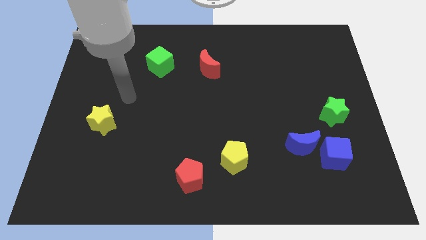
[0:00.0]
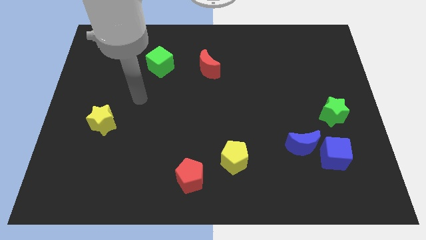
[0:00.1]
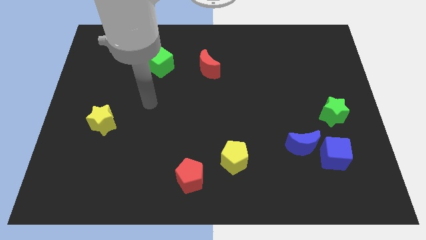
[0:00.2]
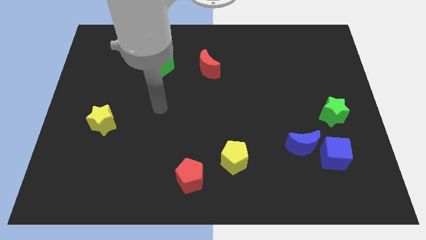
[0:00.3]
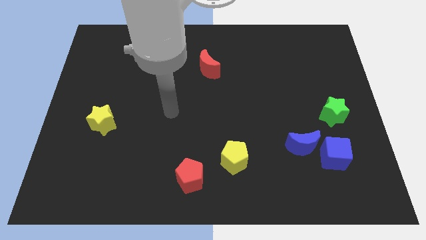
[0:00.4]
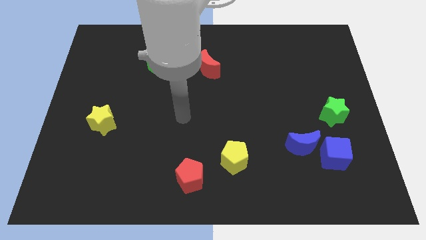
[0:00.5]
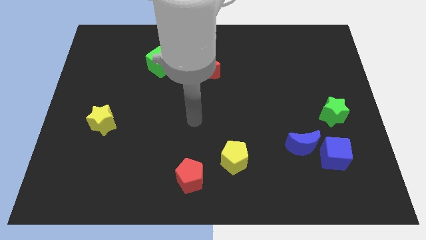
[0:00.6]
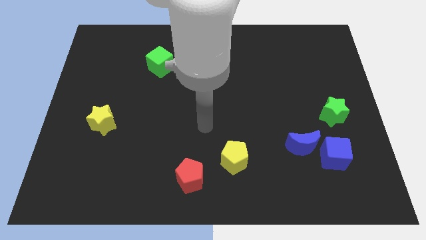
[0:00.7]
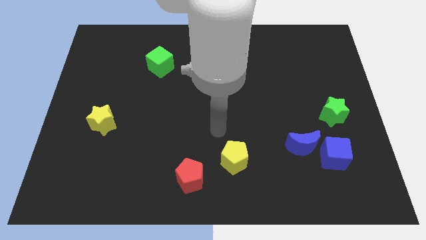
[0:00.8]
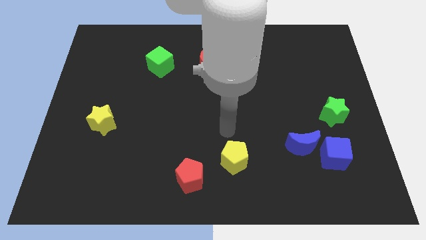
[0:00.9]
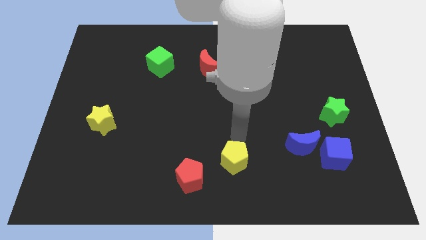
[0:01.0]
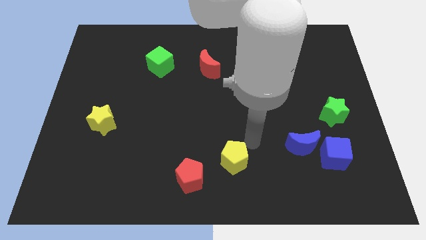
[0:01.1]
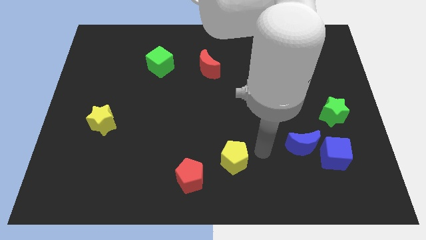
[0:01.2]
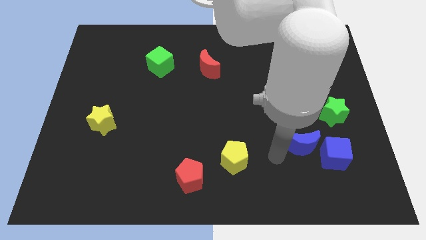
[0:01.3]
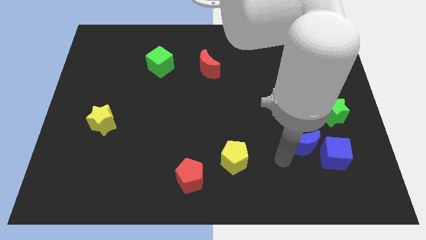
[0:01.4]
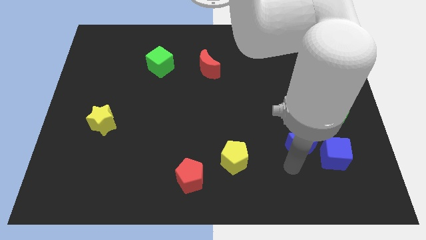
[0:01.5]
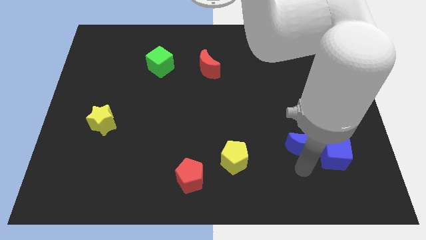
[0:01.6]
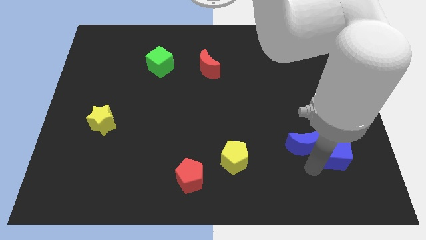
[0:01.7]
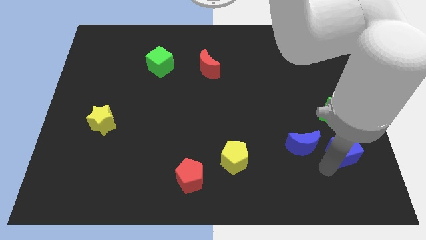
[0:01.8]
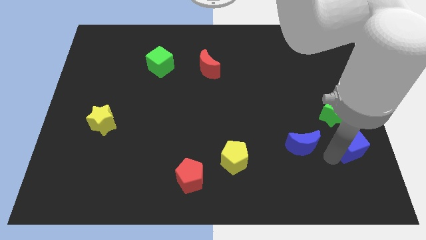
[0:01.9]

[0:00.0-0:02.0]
separate the blue moon from the blue cube

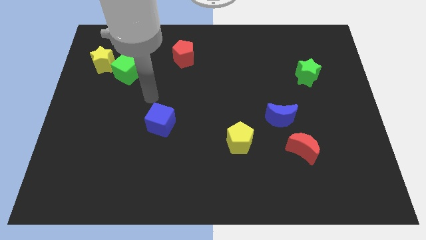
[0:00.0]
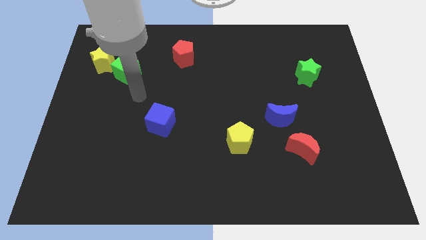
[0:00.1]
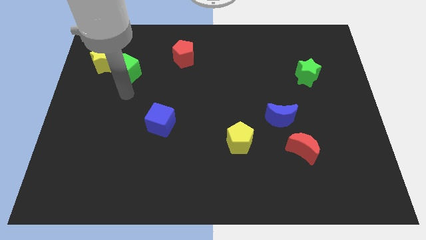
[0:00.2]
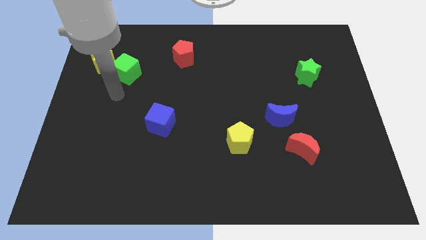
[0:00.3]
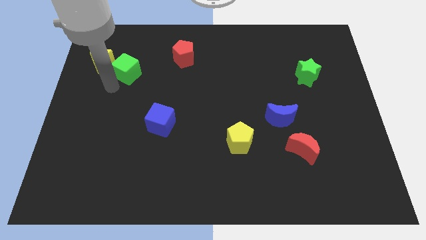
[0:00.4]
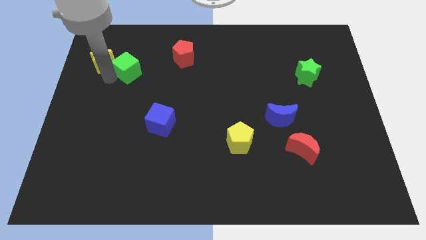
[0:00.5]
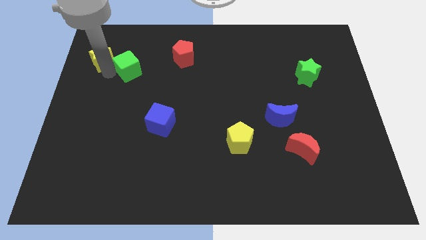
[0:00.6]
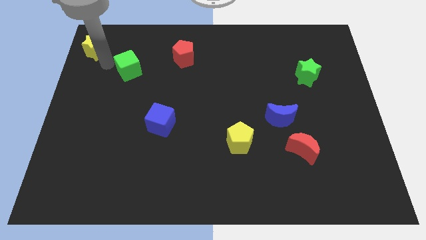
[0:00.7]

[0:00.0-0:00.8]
pull the green cube apart from the yellow star

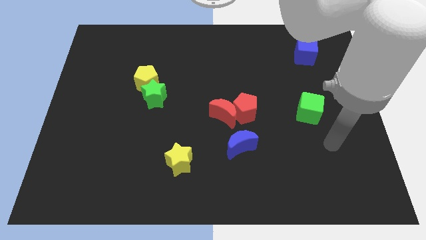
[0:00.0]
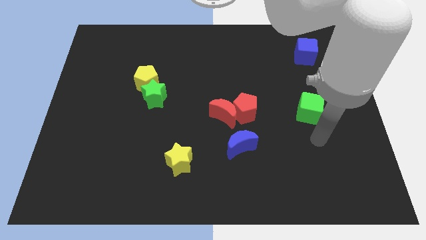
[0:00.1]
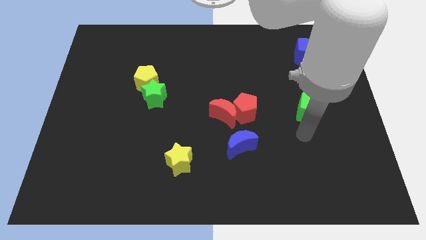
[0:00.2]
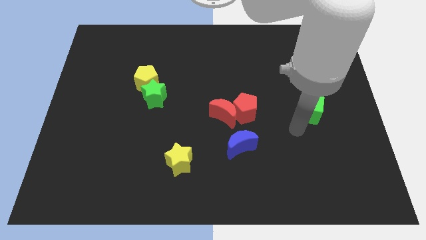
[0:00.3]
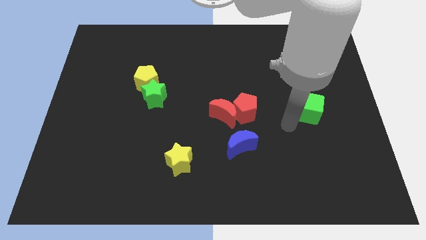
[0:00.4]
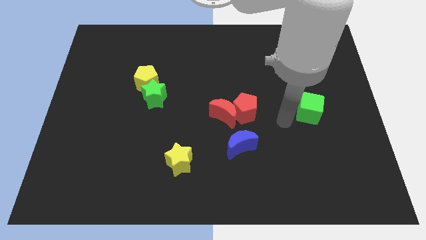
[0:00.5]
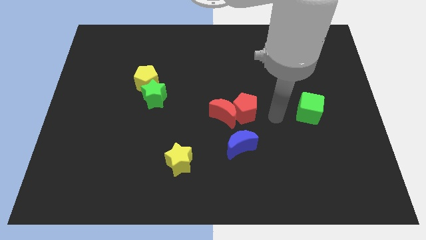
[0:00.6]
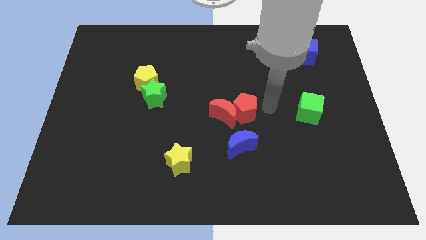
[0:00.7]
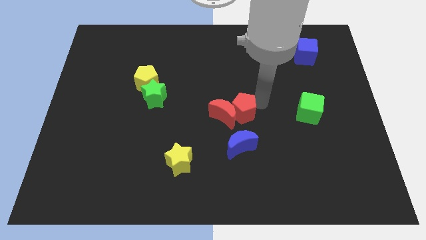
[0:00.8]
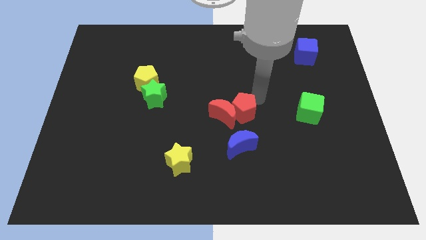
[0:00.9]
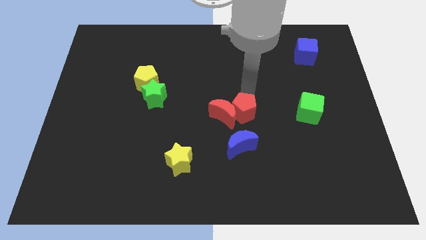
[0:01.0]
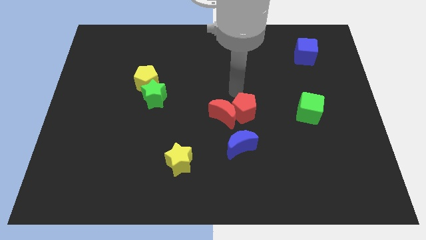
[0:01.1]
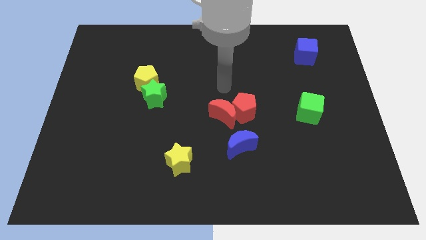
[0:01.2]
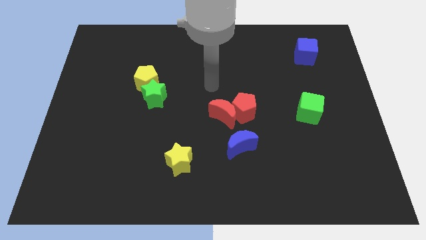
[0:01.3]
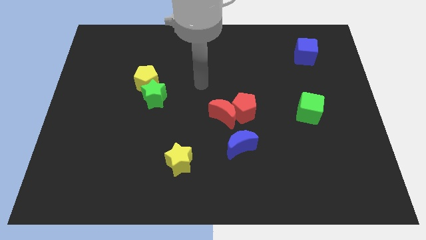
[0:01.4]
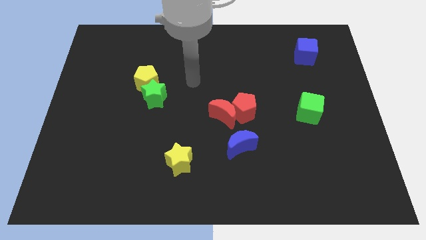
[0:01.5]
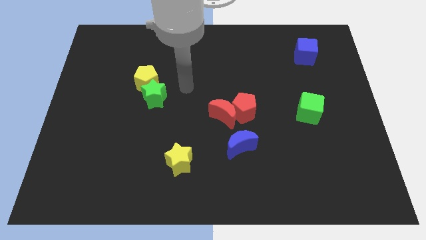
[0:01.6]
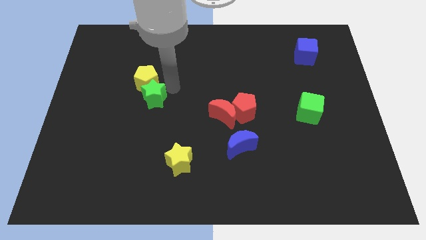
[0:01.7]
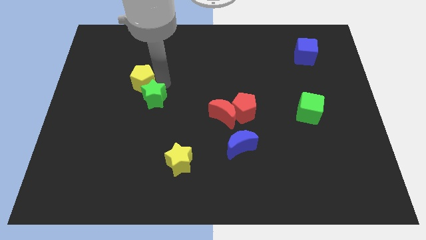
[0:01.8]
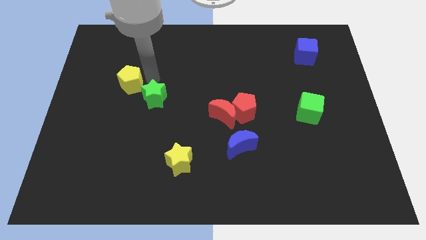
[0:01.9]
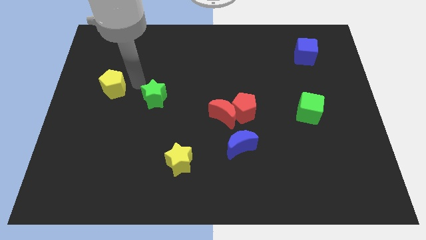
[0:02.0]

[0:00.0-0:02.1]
move the green star away from the yellow pentagon

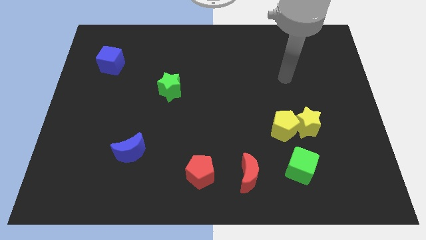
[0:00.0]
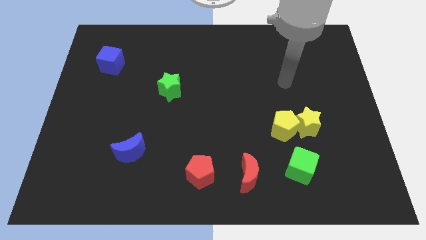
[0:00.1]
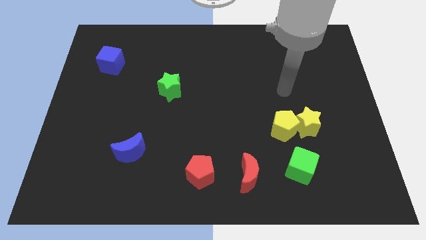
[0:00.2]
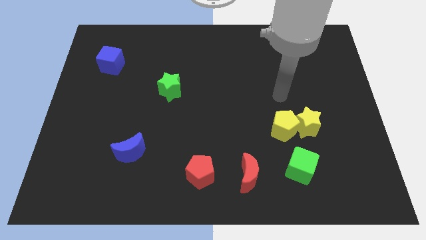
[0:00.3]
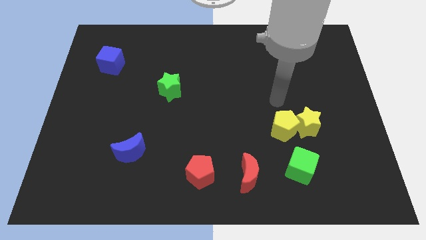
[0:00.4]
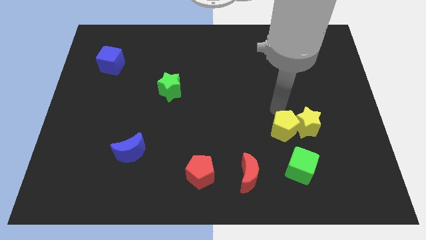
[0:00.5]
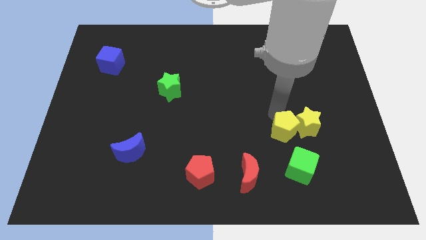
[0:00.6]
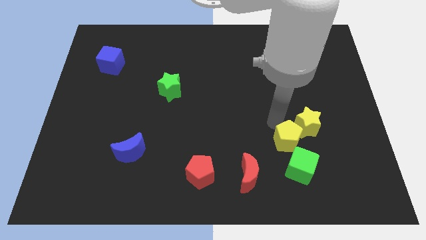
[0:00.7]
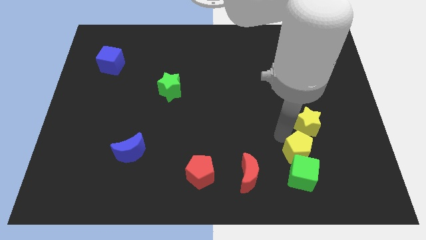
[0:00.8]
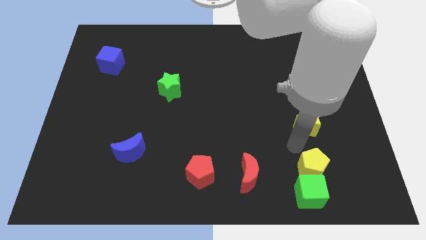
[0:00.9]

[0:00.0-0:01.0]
separate the yellow star from the yellow pentagon

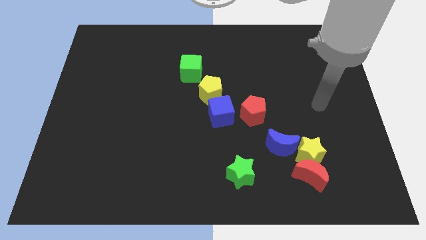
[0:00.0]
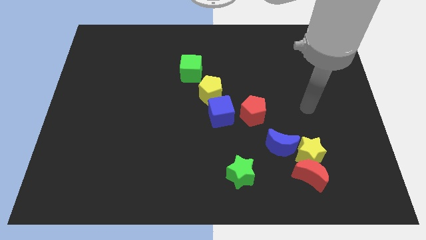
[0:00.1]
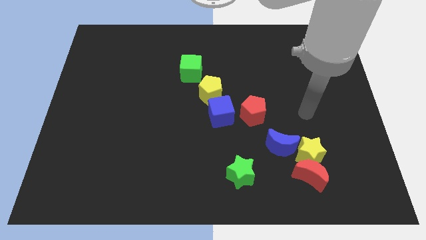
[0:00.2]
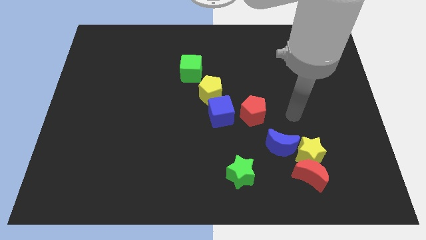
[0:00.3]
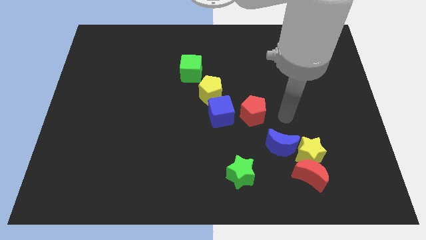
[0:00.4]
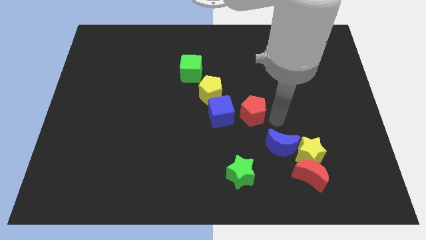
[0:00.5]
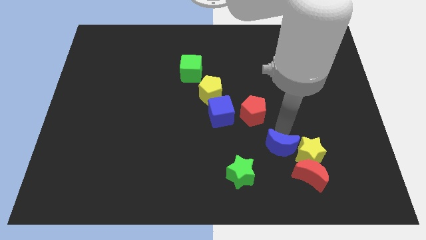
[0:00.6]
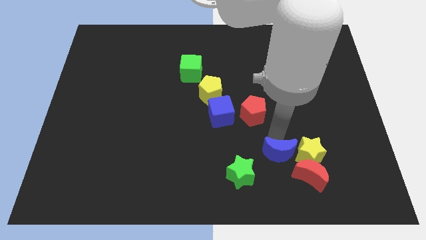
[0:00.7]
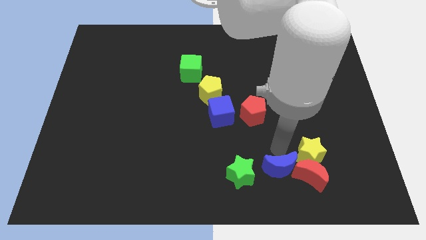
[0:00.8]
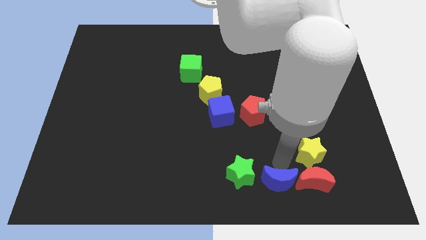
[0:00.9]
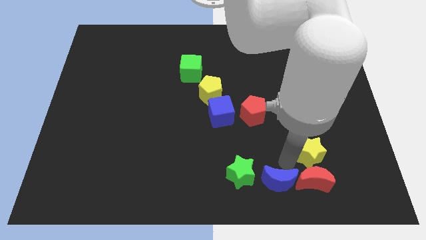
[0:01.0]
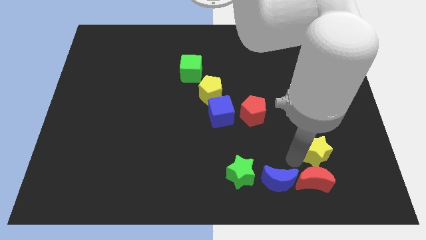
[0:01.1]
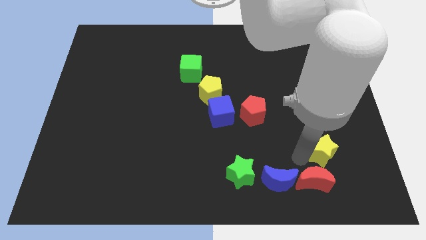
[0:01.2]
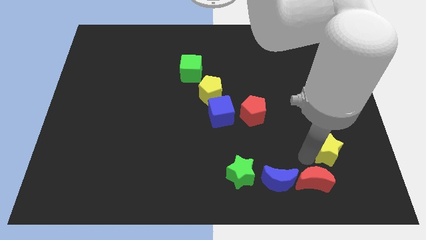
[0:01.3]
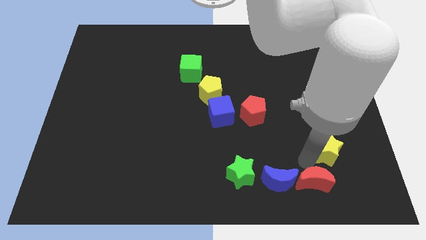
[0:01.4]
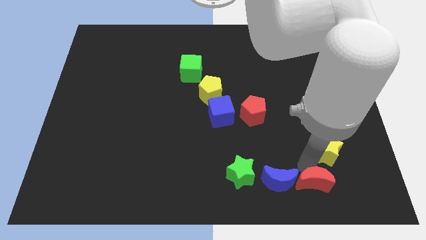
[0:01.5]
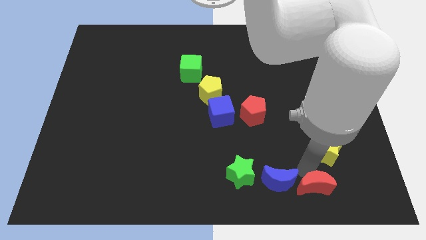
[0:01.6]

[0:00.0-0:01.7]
move the yellow star away from the red moon and blue moon

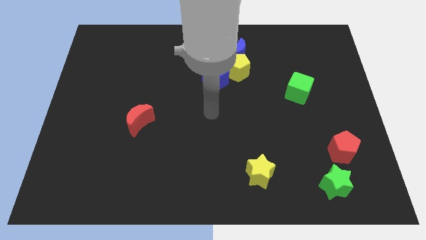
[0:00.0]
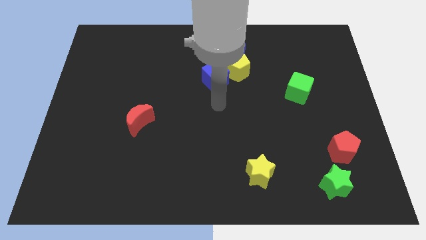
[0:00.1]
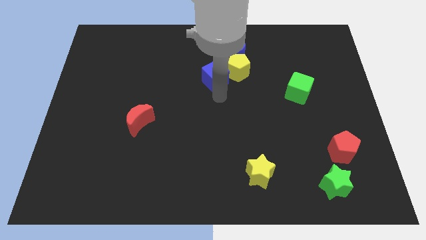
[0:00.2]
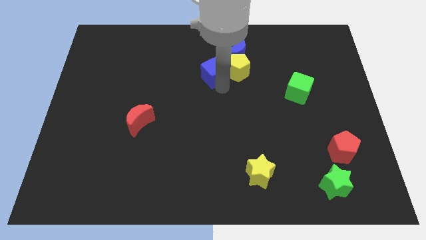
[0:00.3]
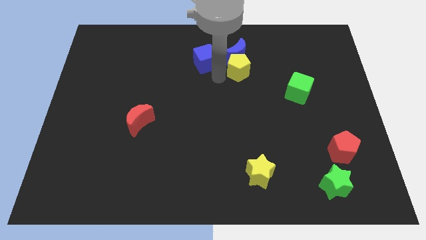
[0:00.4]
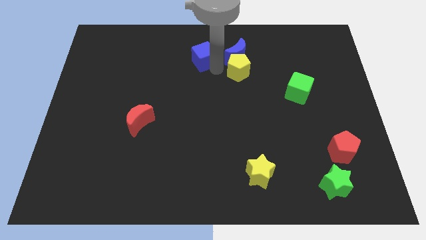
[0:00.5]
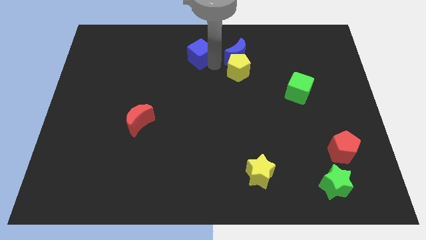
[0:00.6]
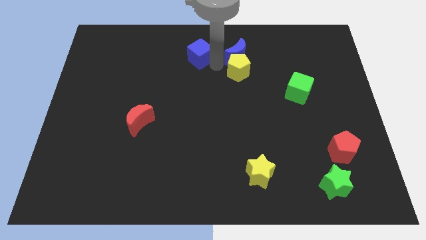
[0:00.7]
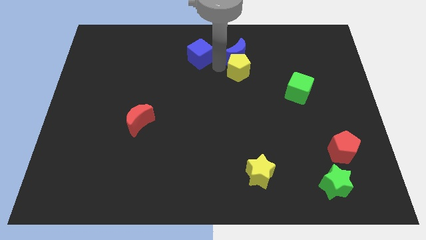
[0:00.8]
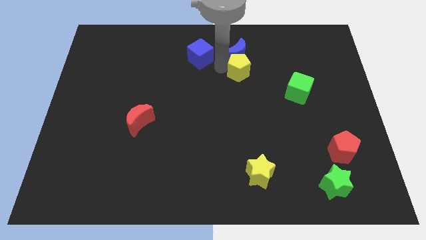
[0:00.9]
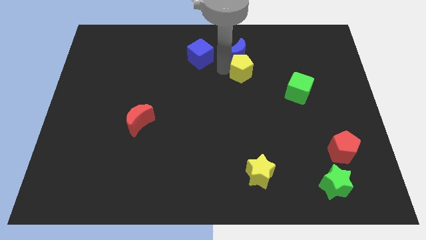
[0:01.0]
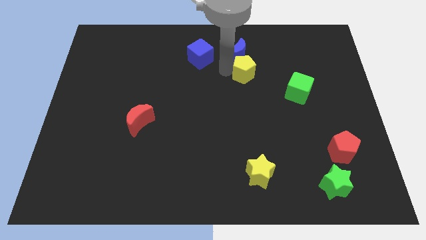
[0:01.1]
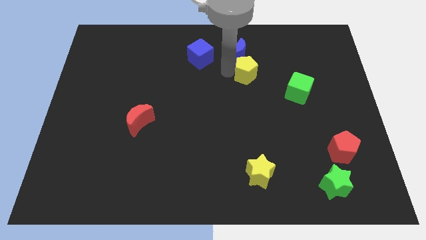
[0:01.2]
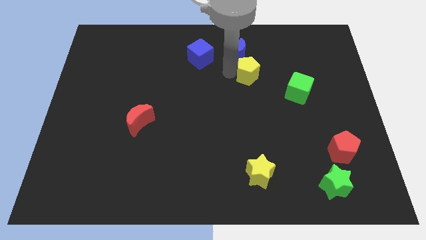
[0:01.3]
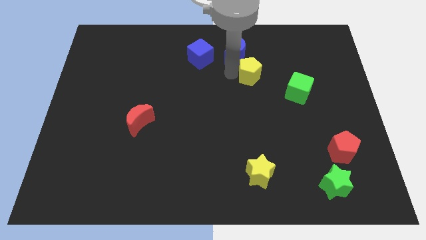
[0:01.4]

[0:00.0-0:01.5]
move the yellow pentagon away from the blue moon and blue cube

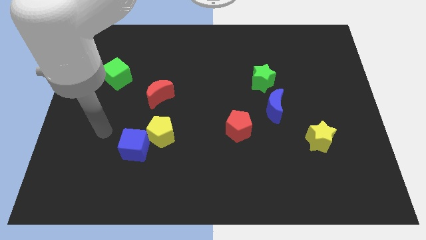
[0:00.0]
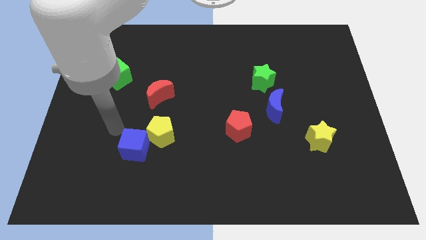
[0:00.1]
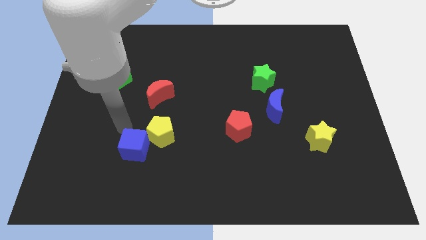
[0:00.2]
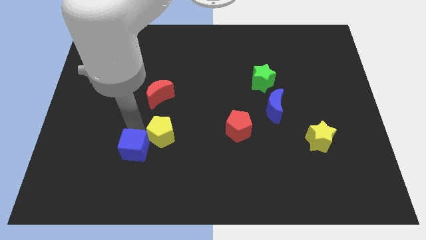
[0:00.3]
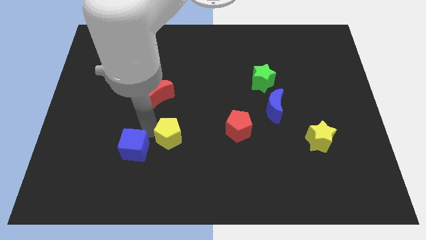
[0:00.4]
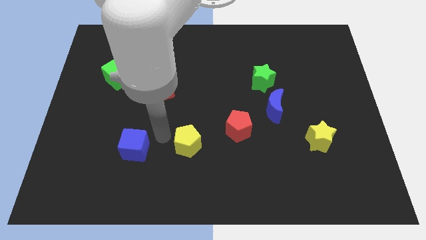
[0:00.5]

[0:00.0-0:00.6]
separate the blue cube from the yellow pentagon
